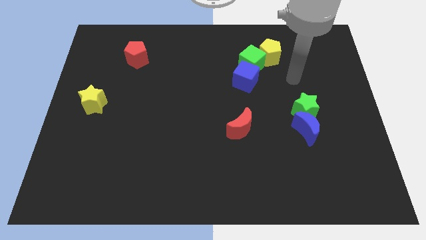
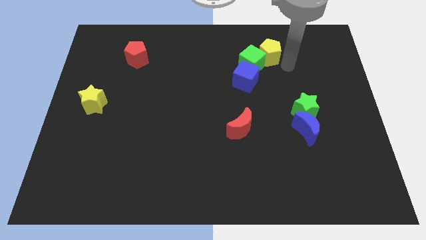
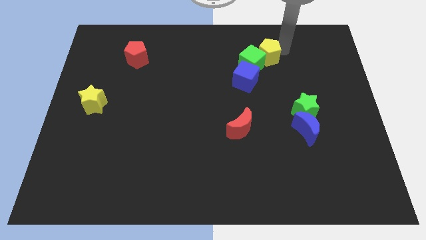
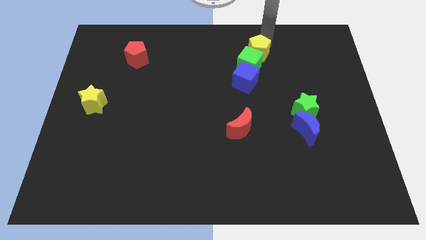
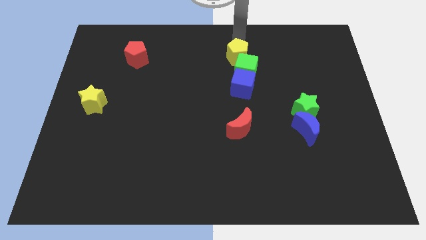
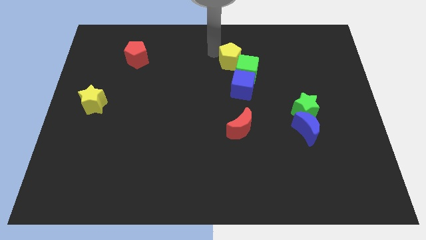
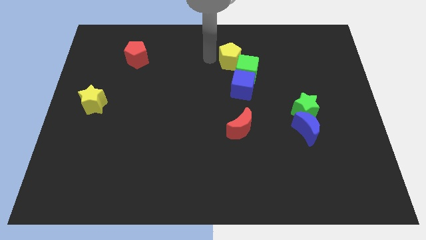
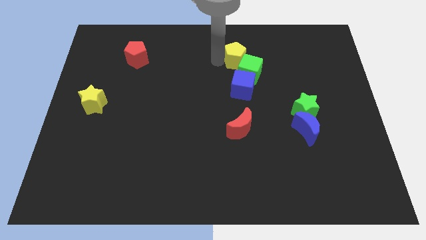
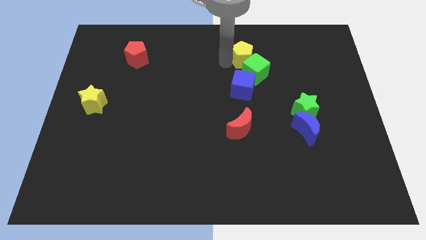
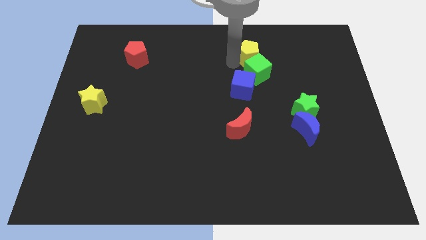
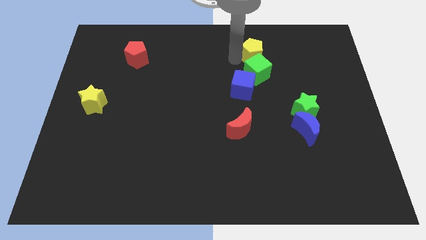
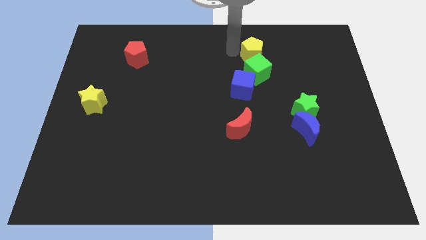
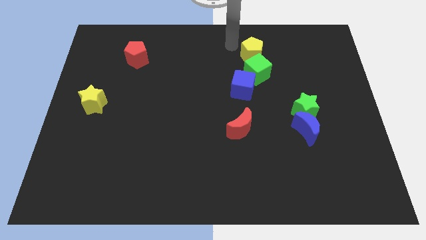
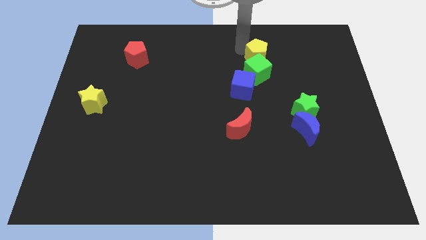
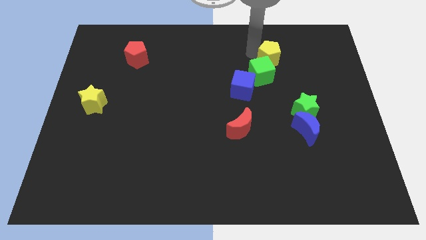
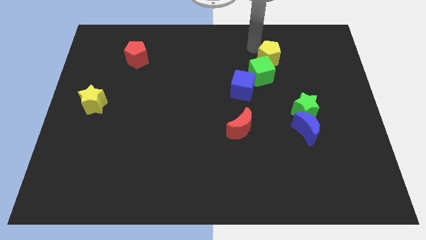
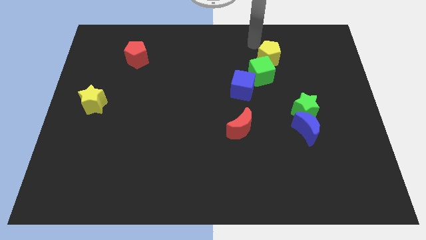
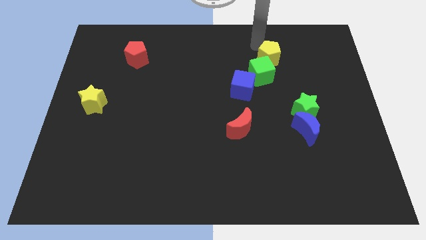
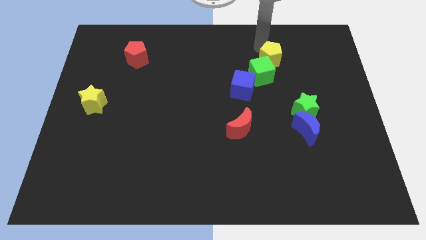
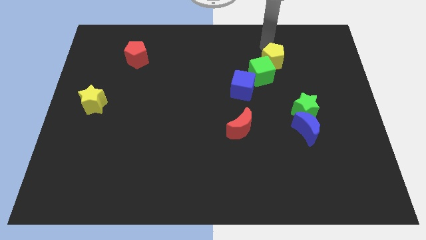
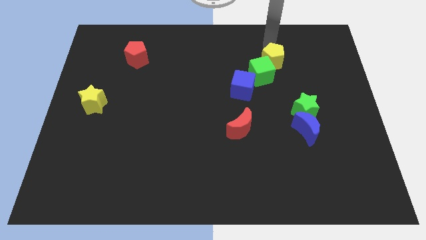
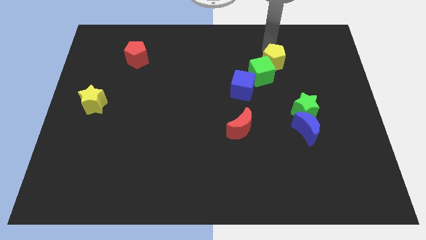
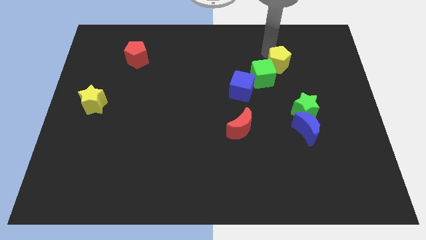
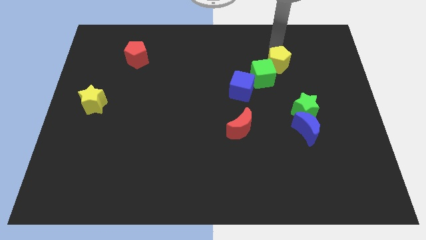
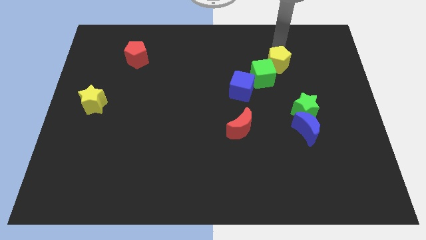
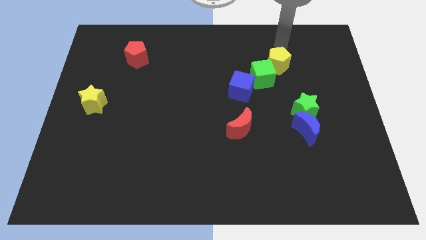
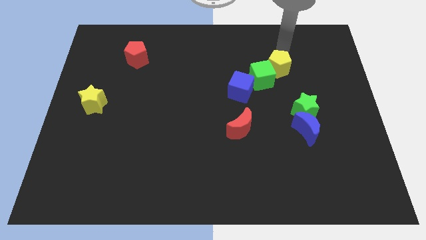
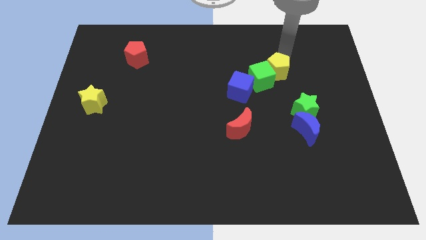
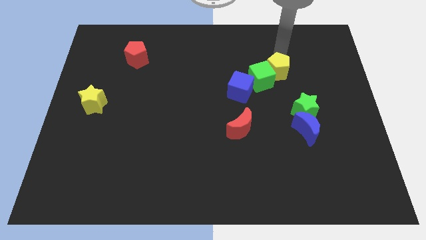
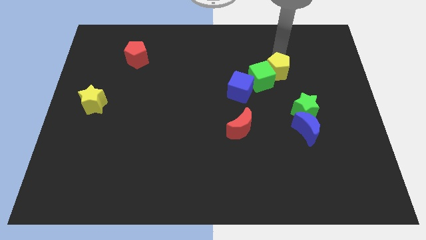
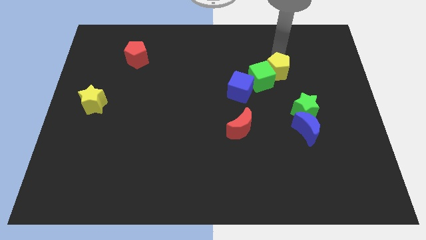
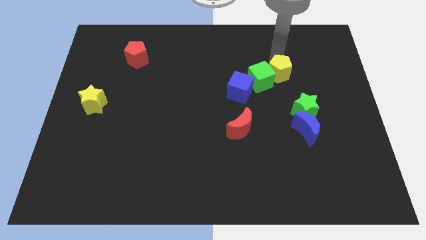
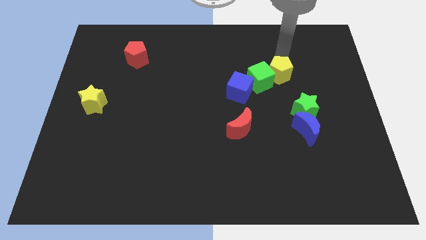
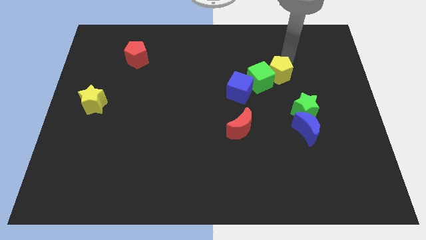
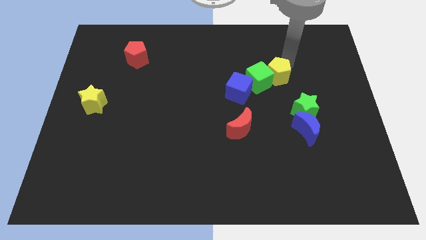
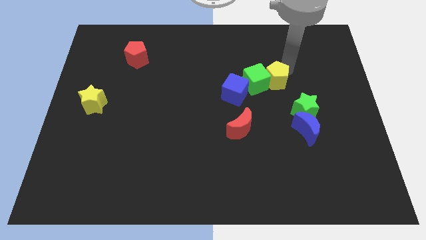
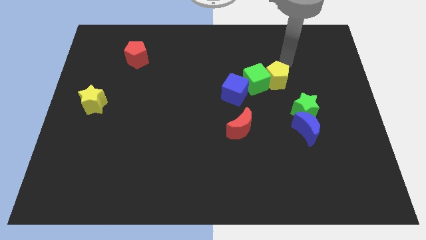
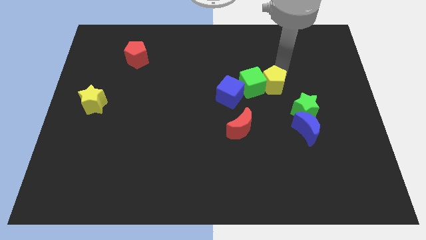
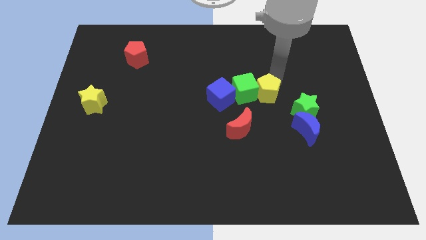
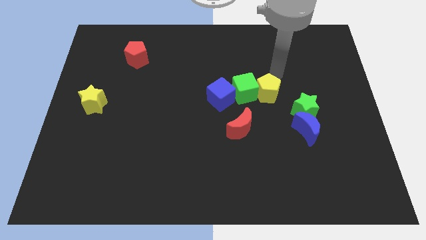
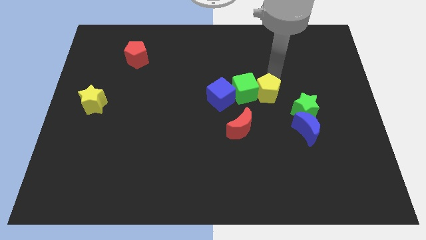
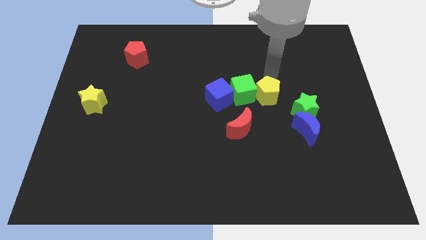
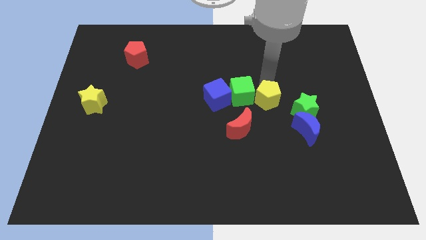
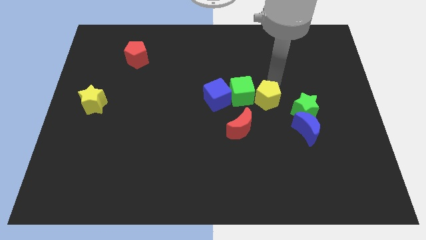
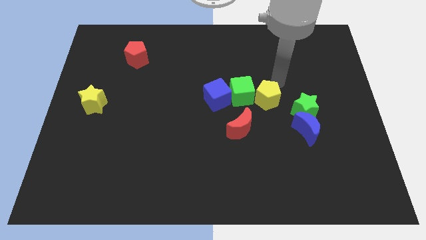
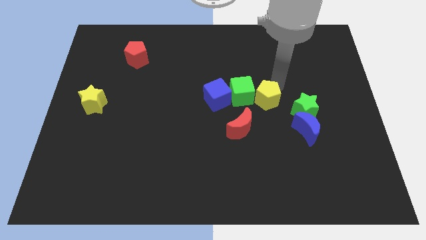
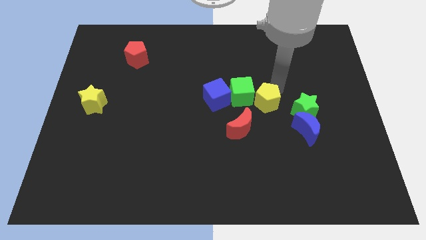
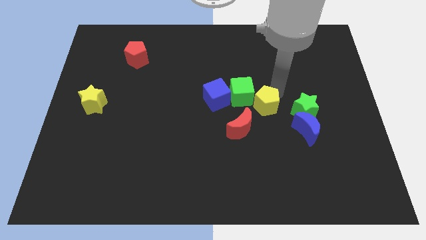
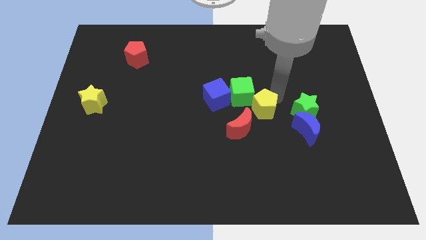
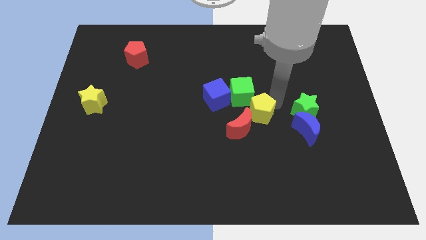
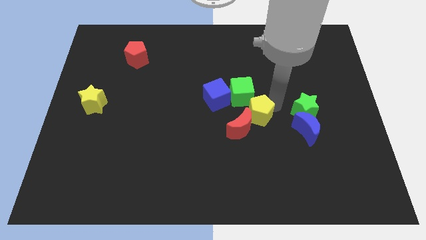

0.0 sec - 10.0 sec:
slide the yellow pentagon close to the red moon

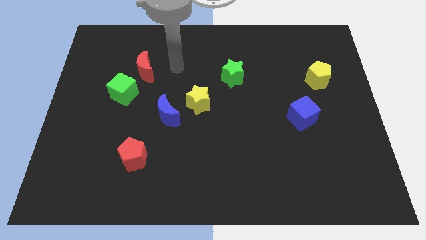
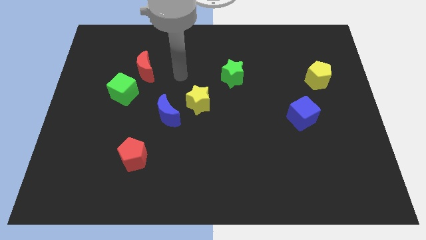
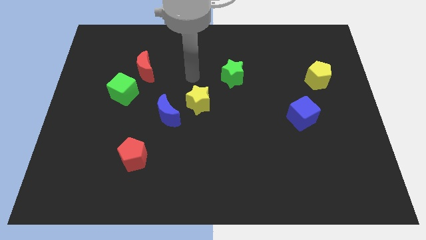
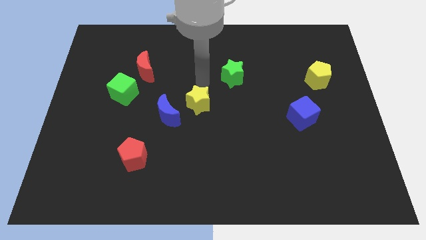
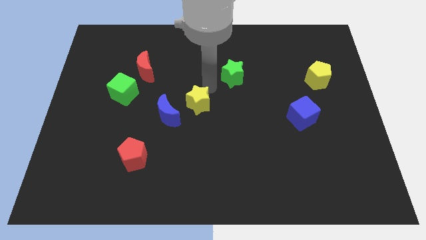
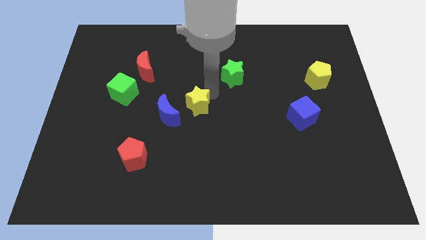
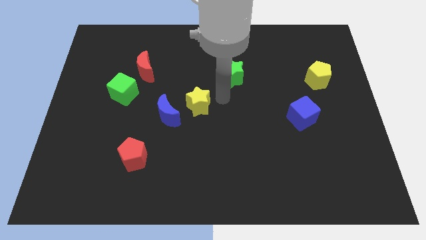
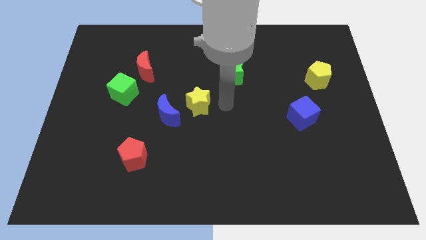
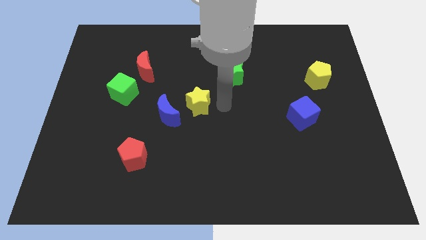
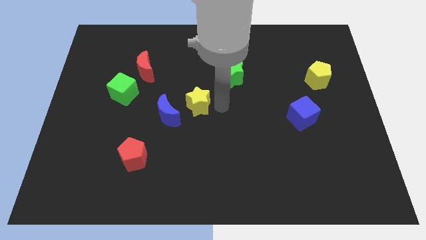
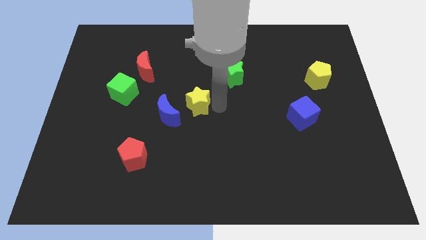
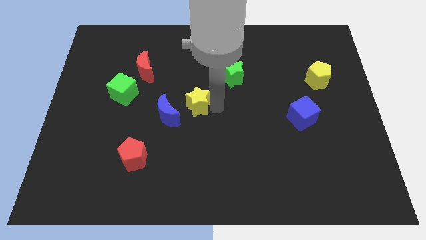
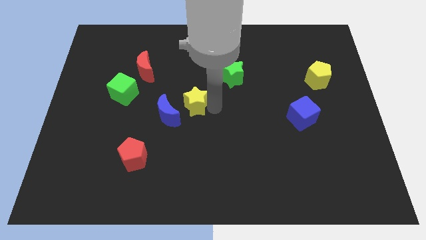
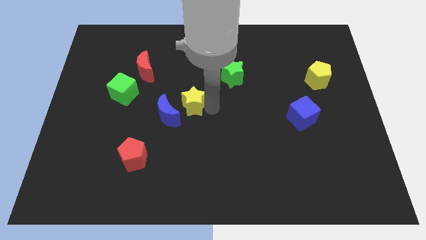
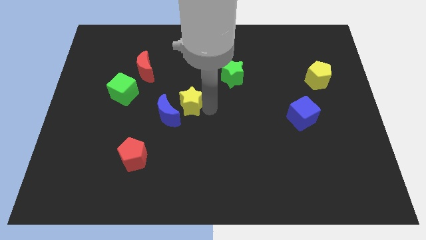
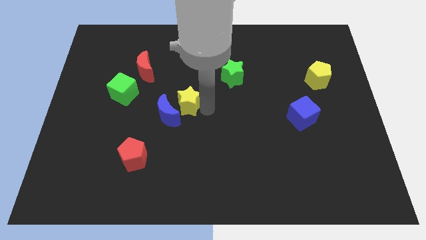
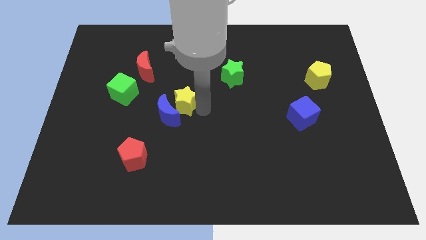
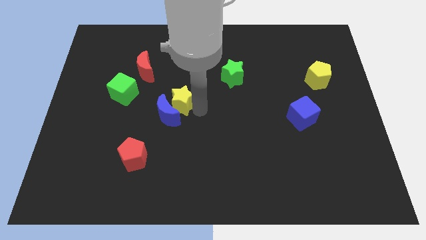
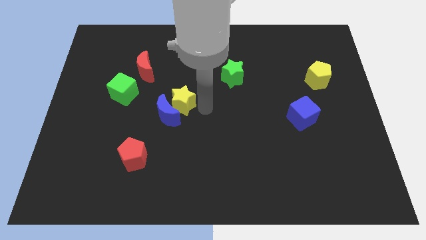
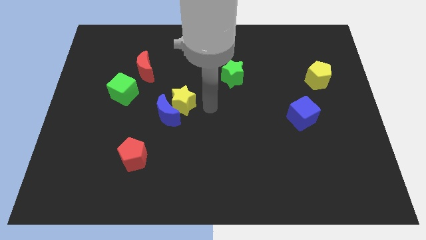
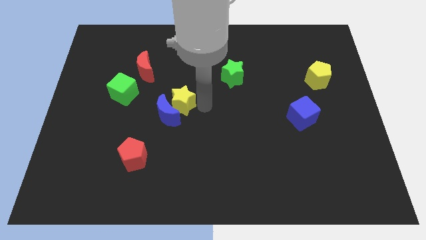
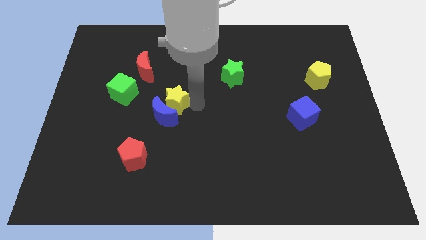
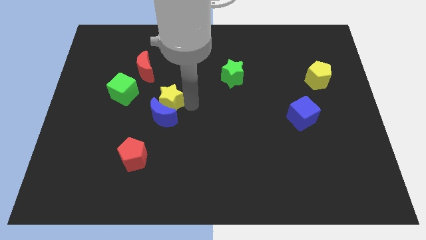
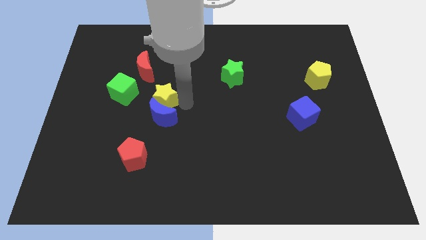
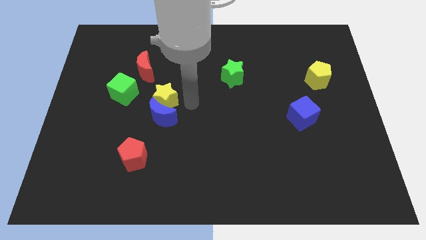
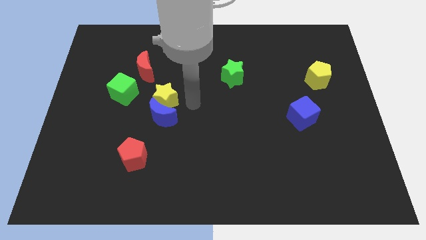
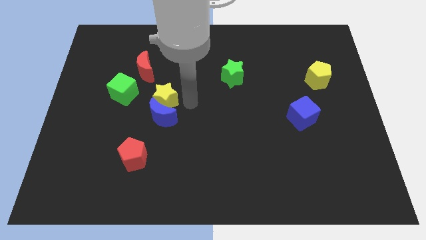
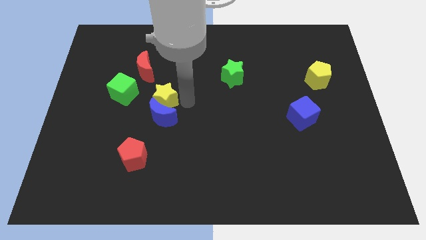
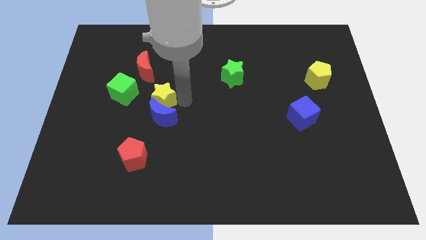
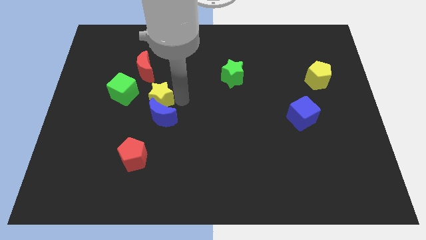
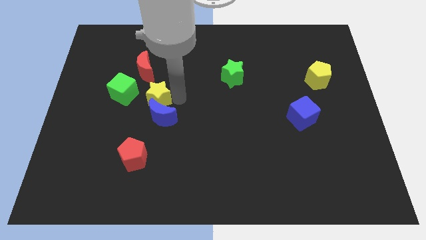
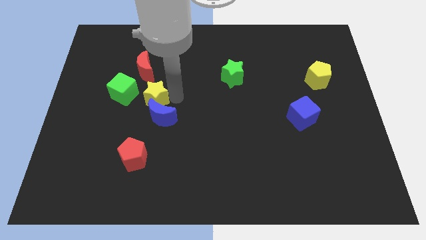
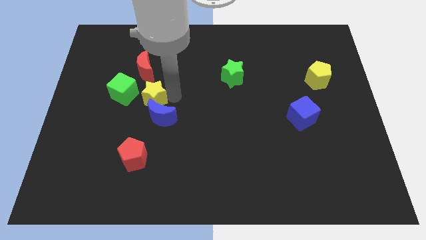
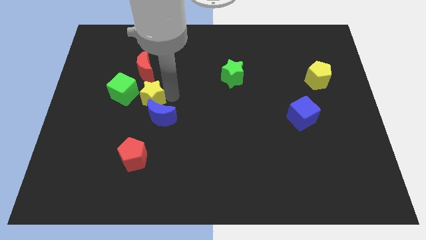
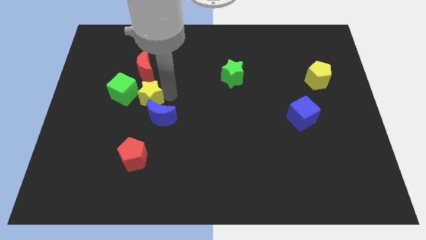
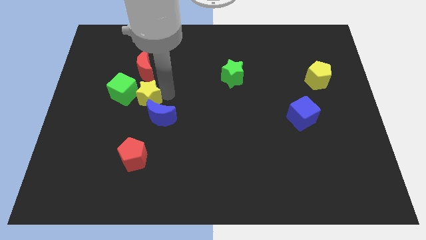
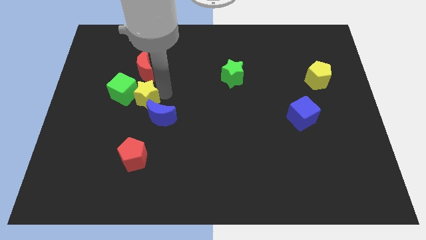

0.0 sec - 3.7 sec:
move the yellow star close to the green cube
